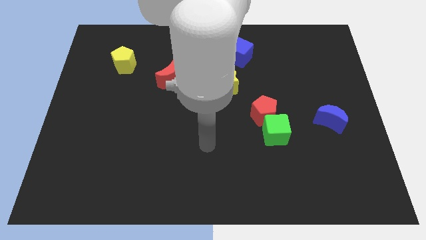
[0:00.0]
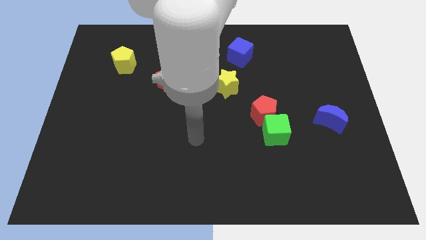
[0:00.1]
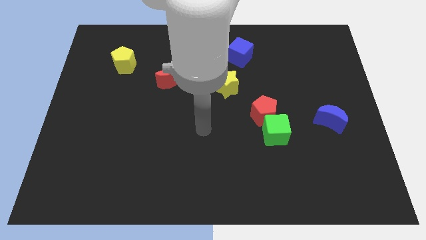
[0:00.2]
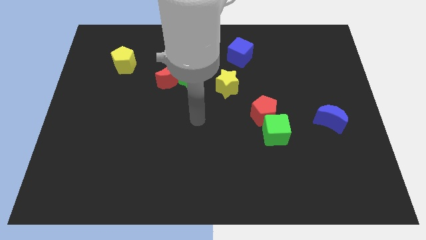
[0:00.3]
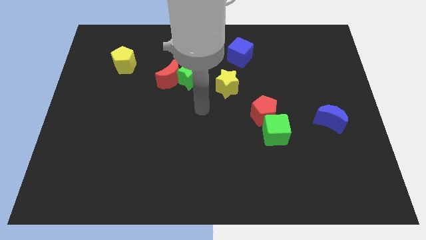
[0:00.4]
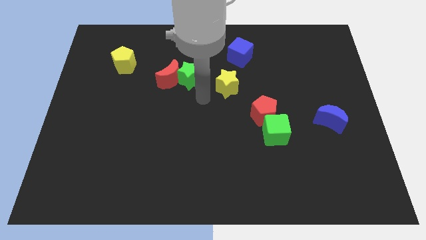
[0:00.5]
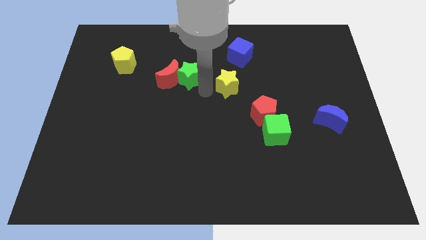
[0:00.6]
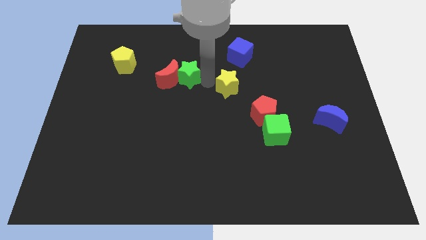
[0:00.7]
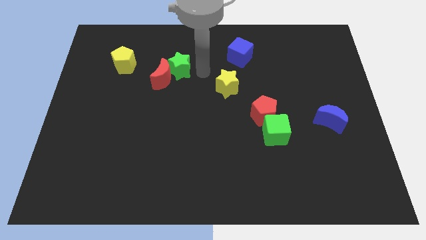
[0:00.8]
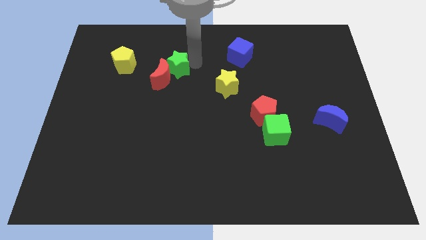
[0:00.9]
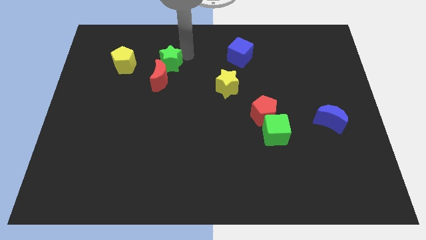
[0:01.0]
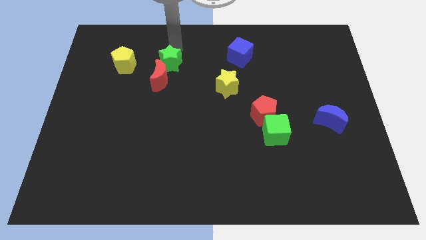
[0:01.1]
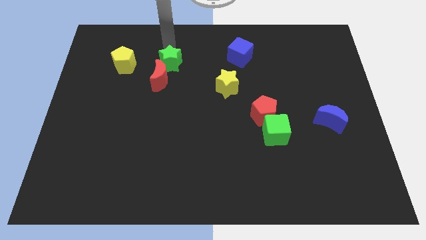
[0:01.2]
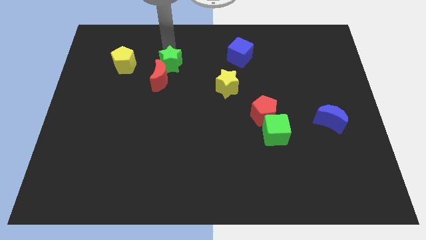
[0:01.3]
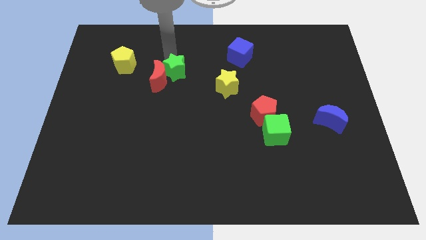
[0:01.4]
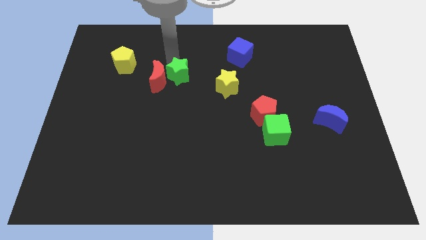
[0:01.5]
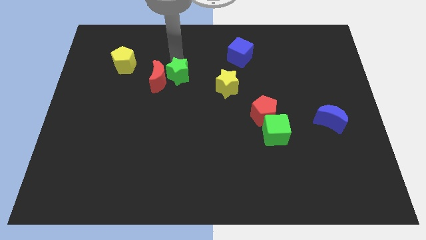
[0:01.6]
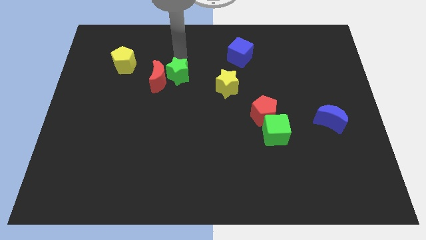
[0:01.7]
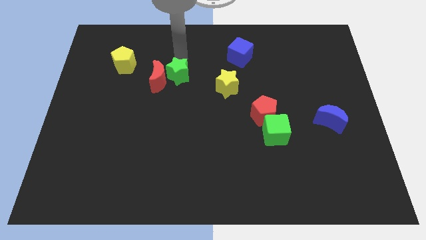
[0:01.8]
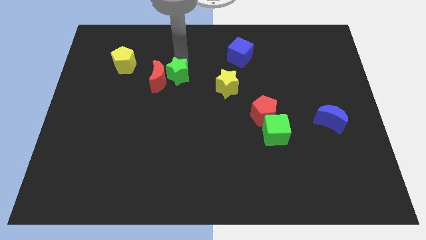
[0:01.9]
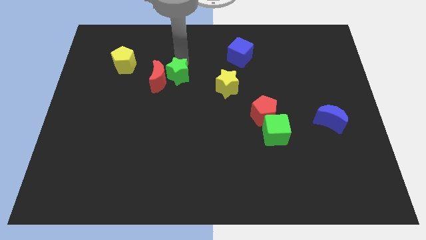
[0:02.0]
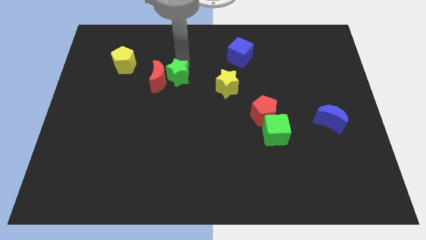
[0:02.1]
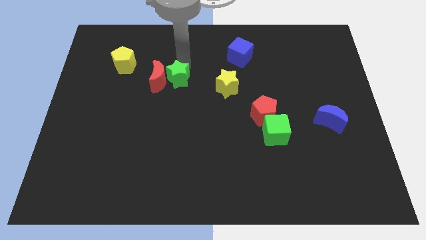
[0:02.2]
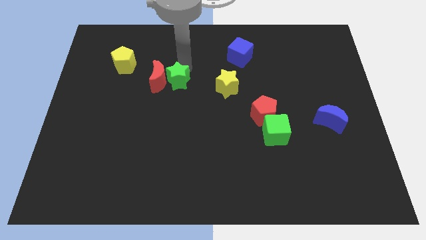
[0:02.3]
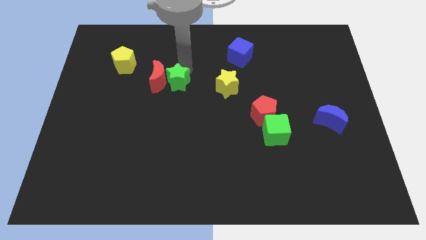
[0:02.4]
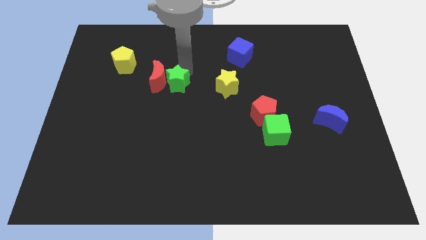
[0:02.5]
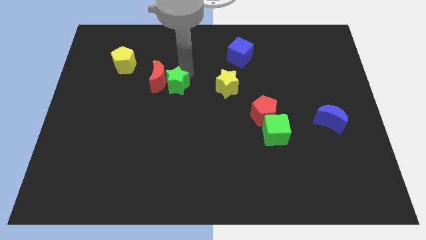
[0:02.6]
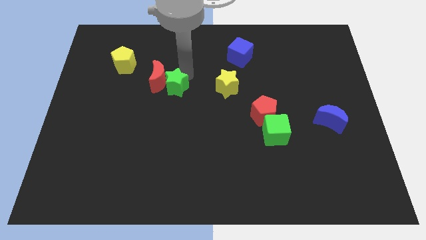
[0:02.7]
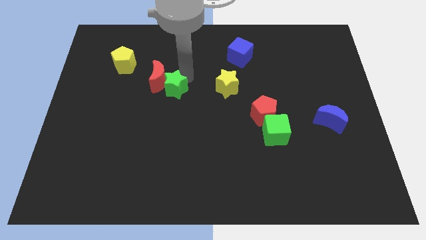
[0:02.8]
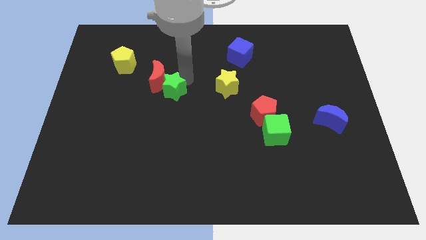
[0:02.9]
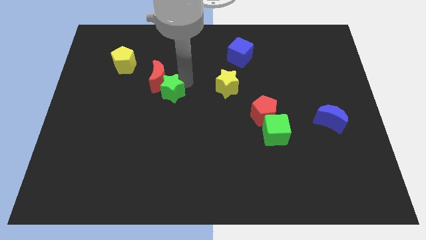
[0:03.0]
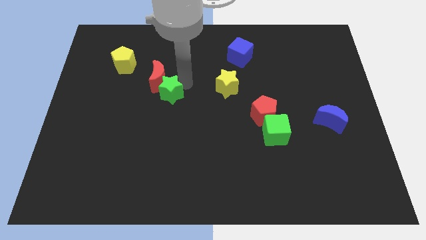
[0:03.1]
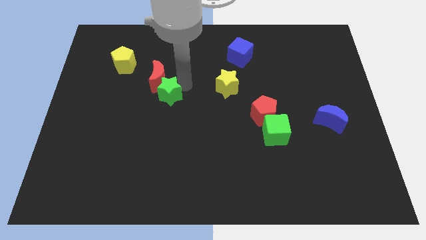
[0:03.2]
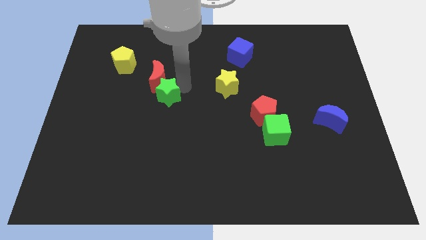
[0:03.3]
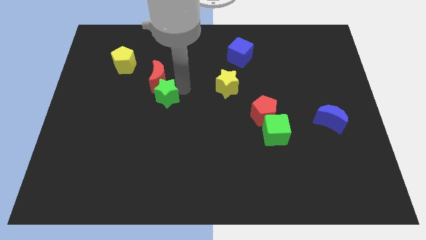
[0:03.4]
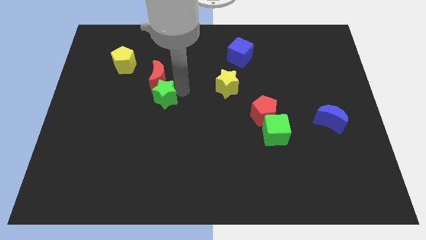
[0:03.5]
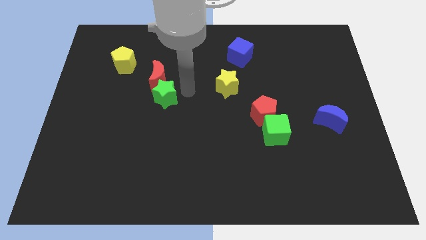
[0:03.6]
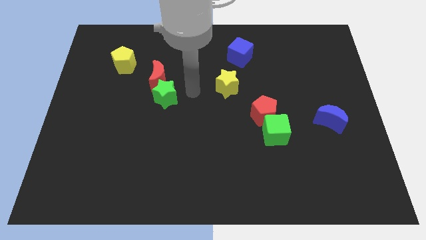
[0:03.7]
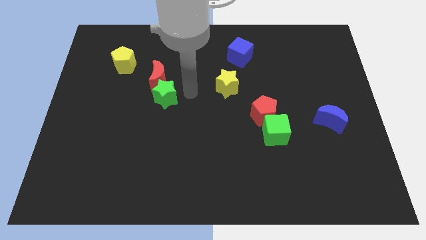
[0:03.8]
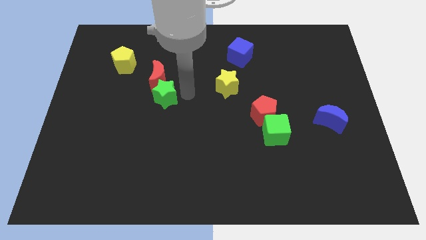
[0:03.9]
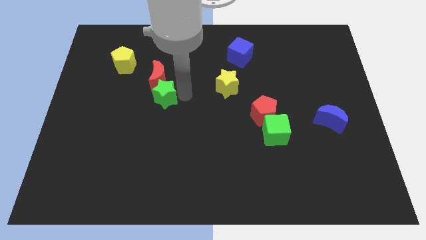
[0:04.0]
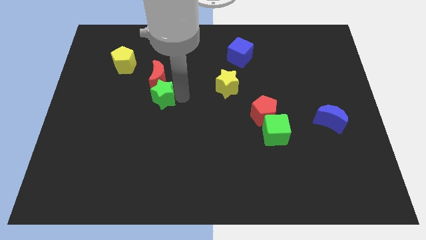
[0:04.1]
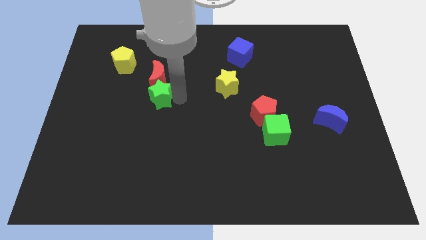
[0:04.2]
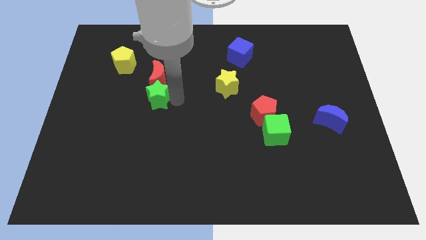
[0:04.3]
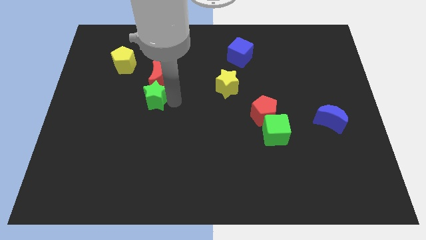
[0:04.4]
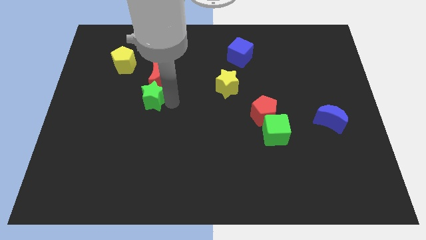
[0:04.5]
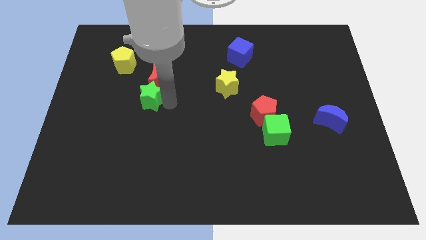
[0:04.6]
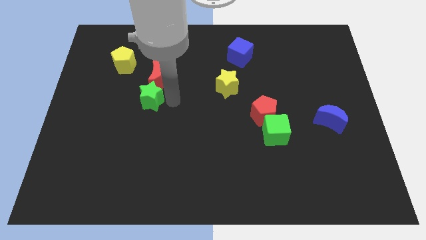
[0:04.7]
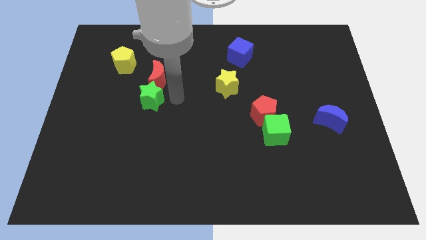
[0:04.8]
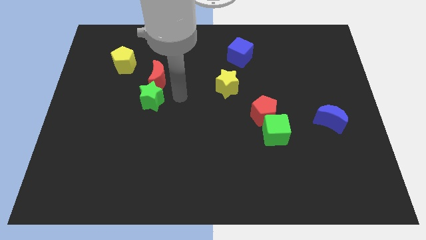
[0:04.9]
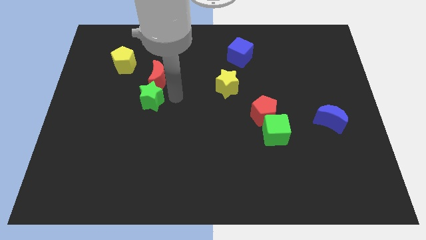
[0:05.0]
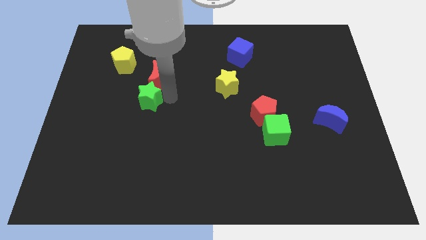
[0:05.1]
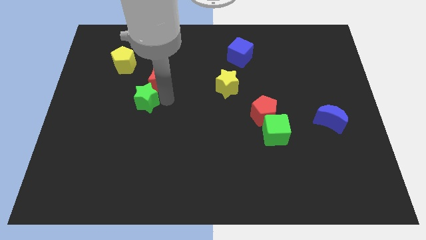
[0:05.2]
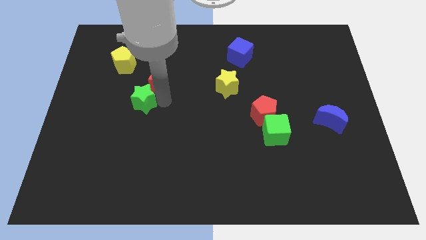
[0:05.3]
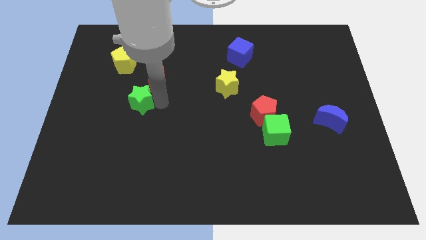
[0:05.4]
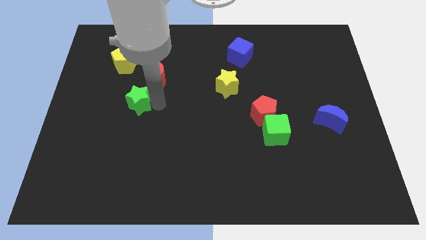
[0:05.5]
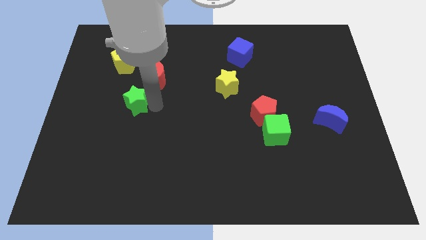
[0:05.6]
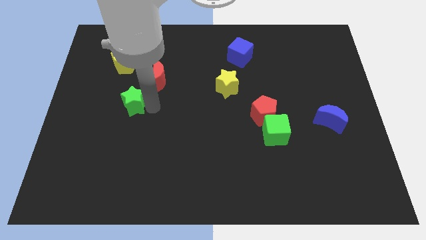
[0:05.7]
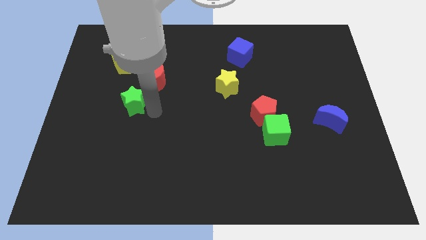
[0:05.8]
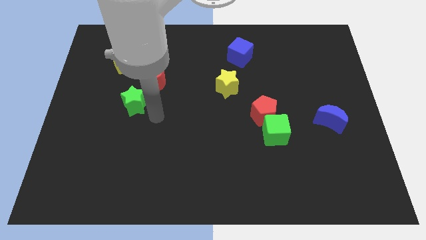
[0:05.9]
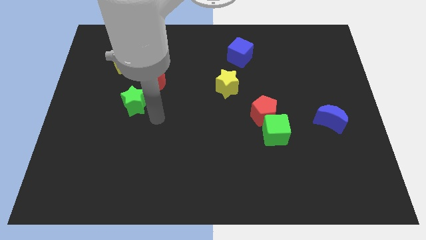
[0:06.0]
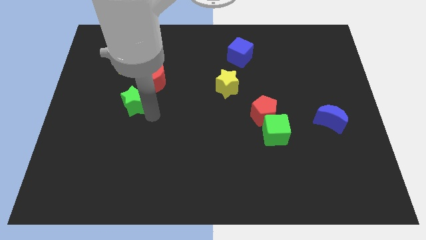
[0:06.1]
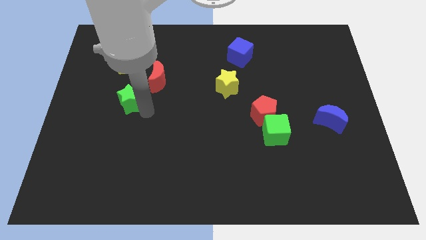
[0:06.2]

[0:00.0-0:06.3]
put the green star to the bottom side of the yellow pentagon

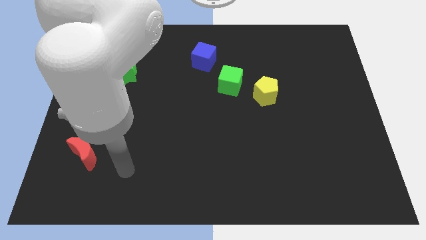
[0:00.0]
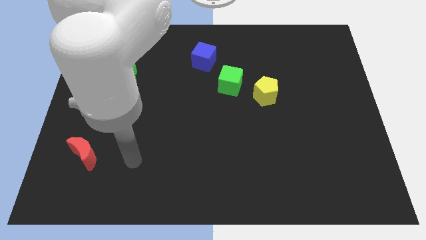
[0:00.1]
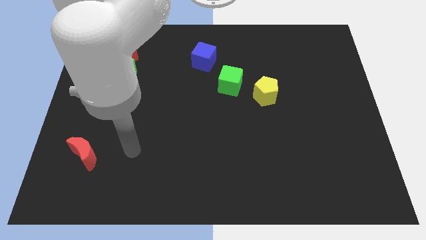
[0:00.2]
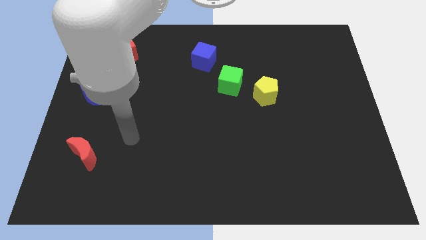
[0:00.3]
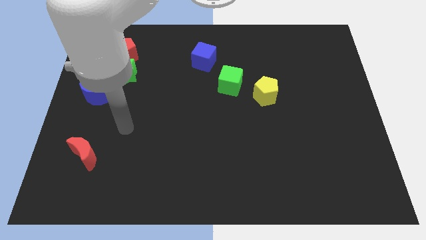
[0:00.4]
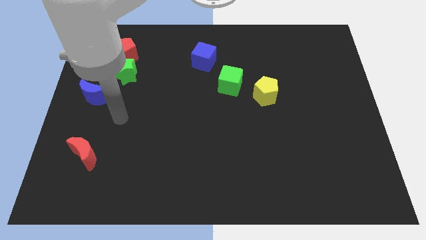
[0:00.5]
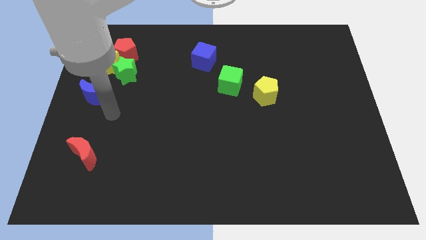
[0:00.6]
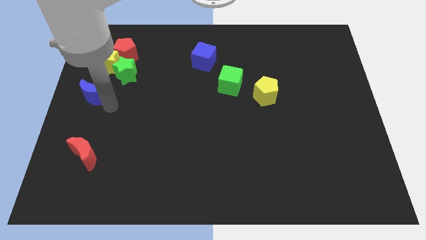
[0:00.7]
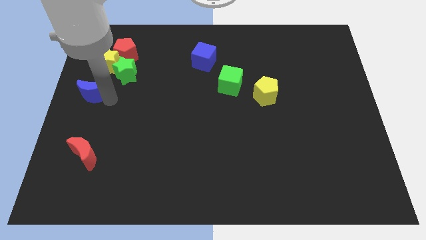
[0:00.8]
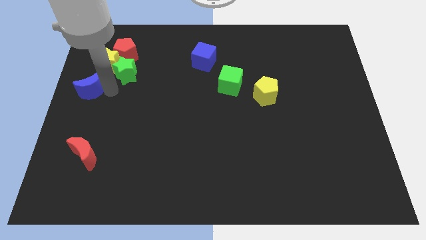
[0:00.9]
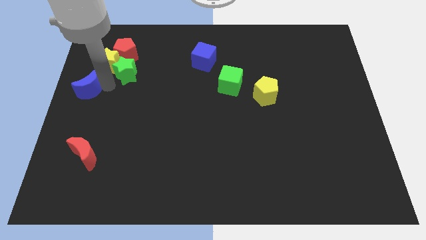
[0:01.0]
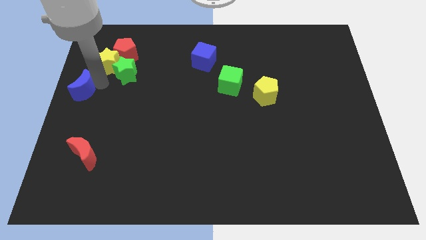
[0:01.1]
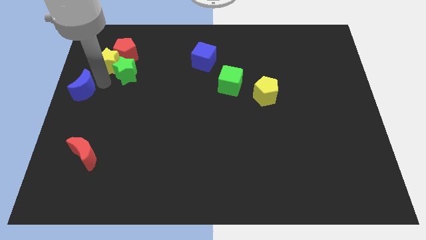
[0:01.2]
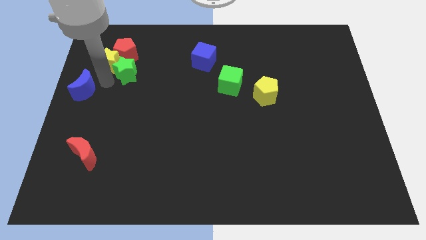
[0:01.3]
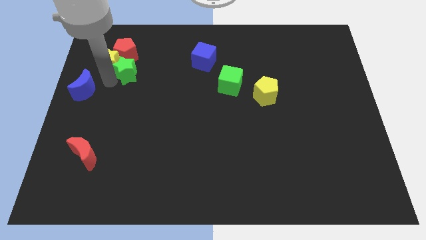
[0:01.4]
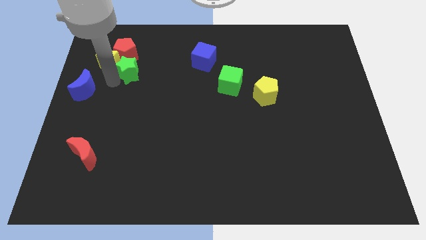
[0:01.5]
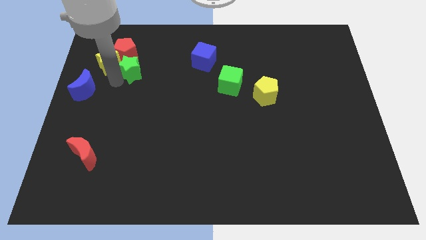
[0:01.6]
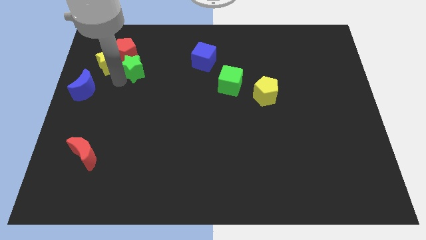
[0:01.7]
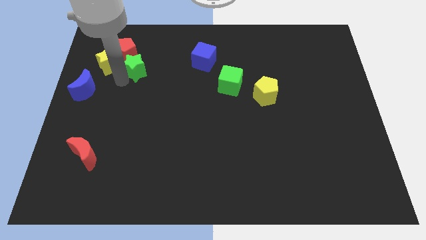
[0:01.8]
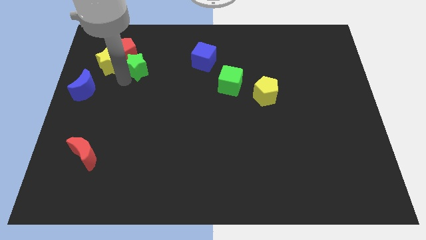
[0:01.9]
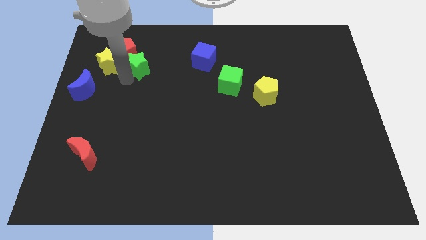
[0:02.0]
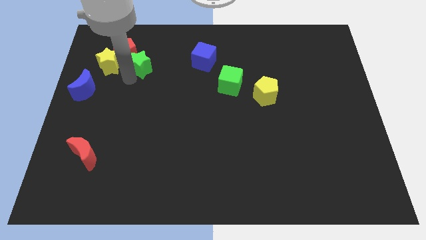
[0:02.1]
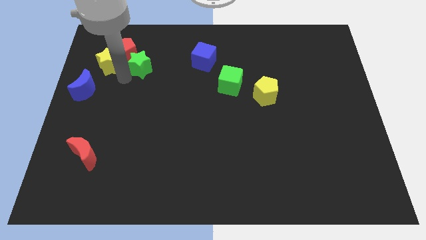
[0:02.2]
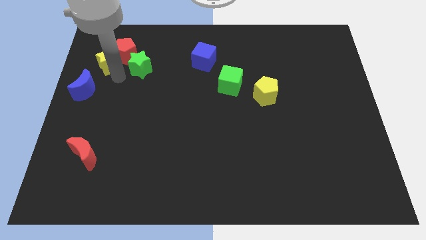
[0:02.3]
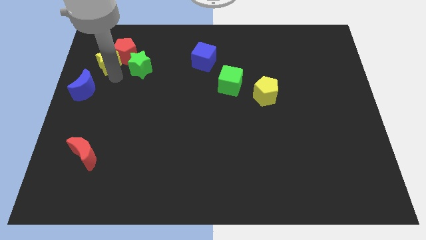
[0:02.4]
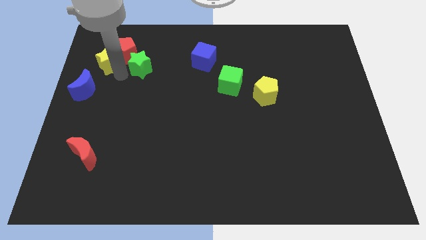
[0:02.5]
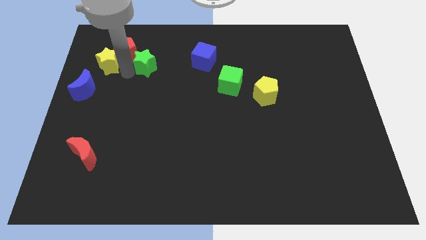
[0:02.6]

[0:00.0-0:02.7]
slide the green star left of the blue cube
